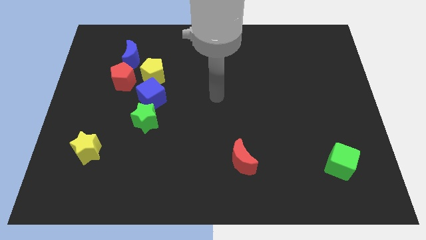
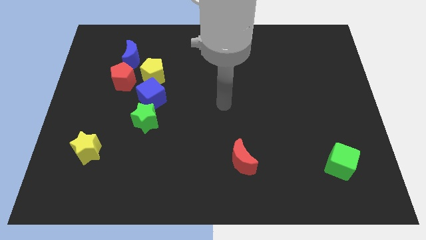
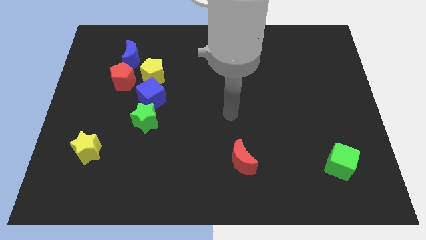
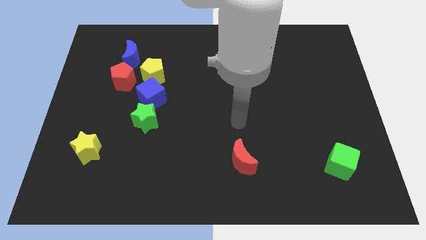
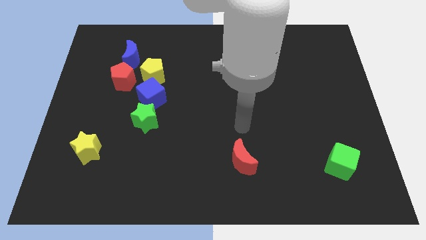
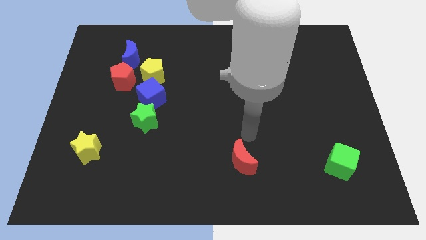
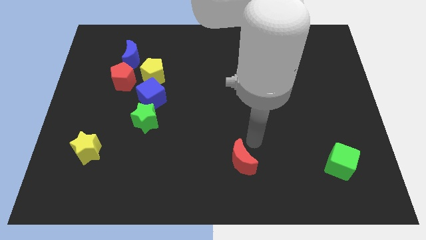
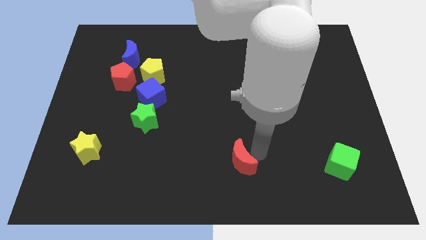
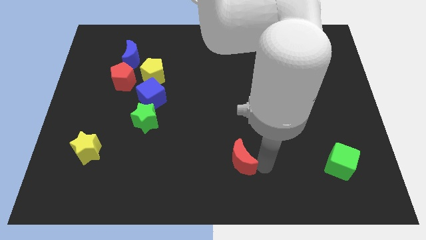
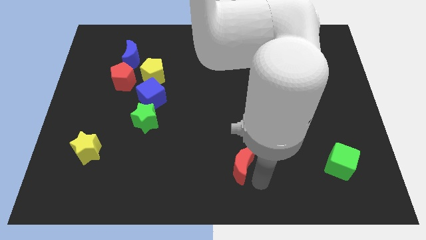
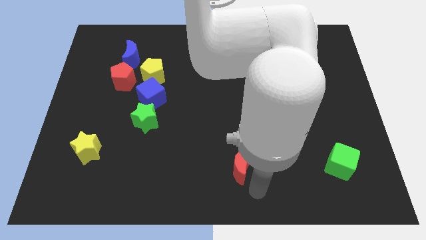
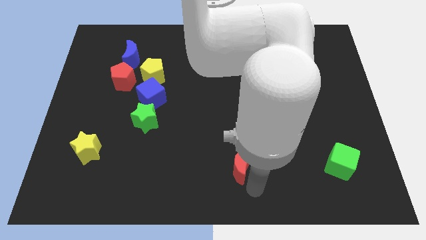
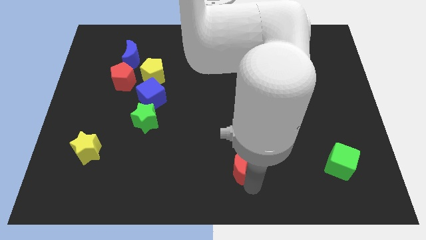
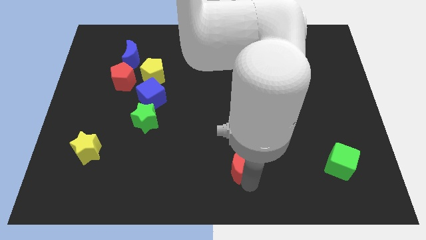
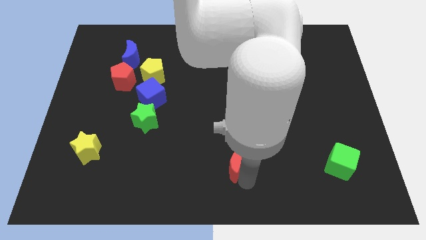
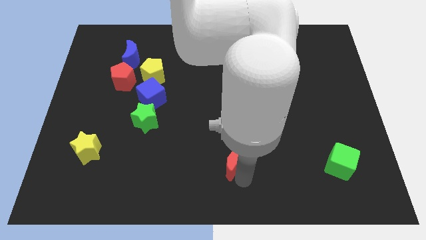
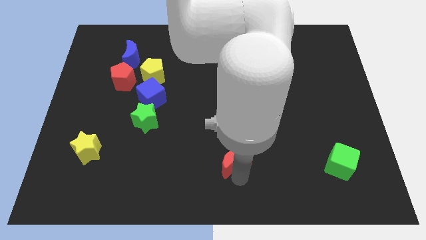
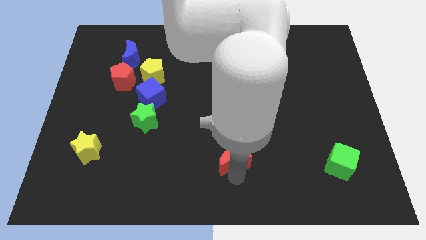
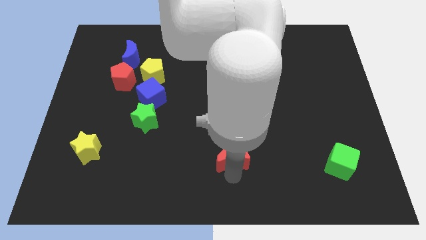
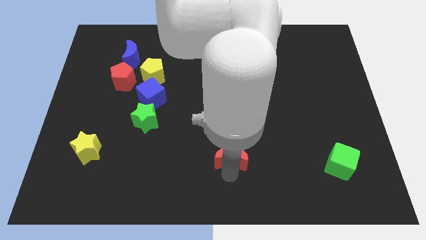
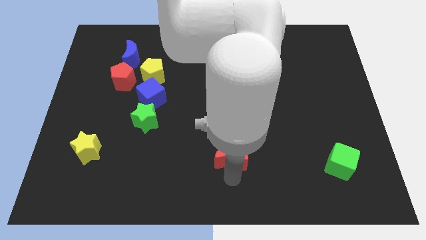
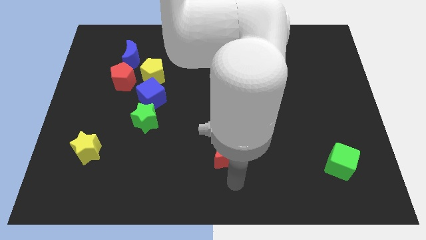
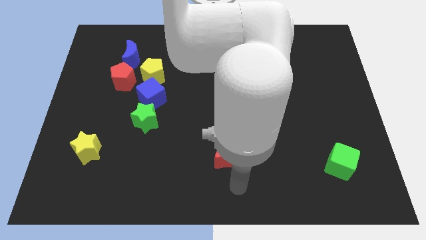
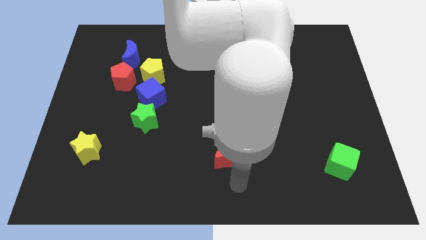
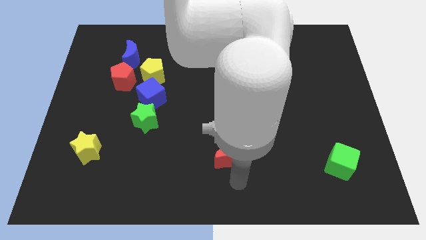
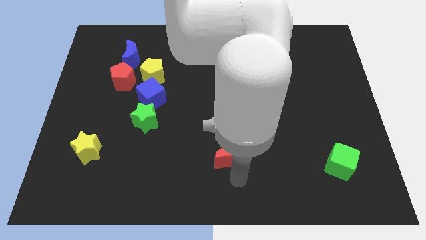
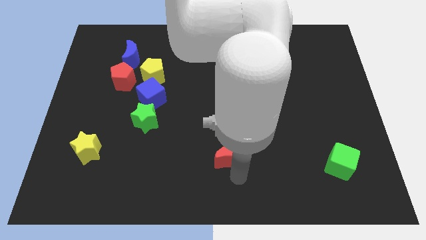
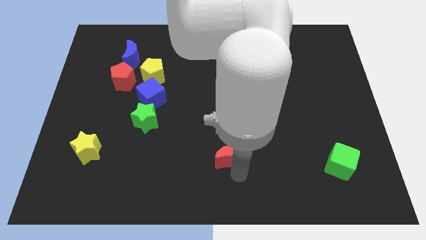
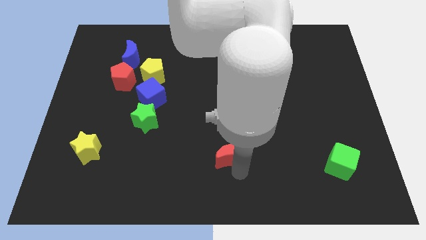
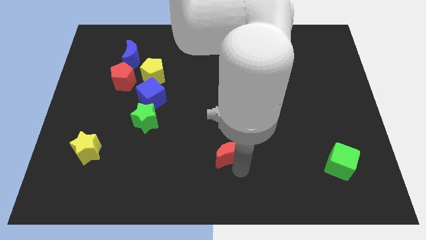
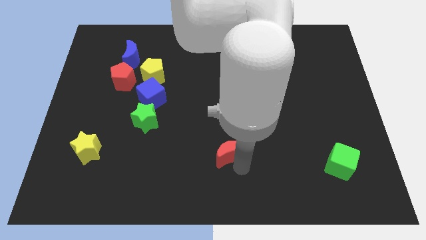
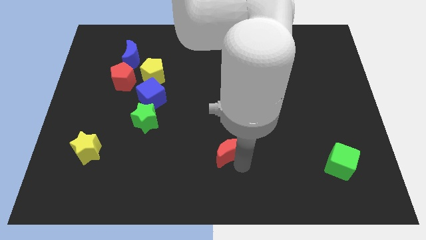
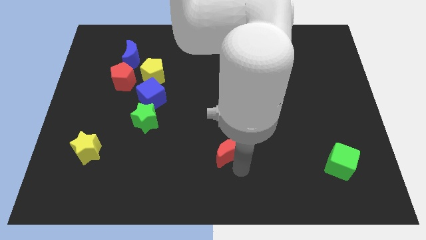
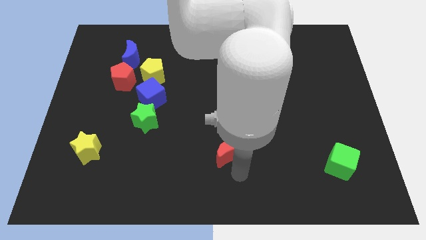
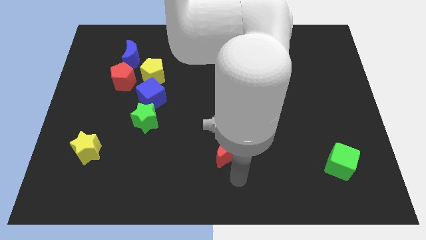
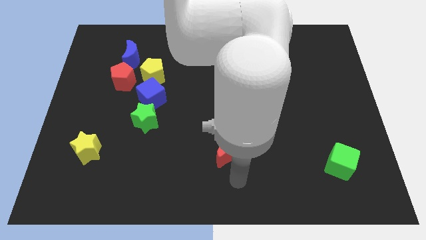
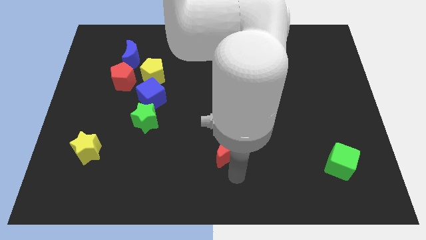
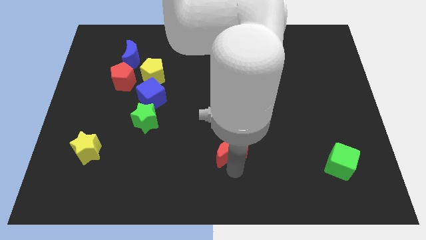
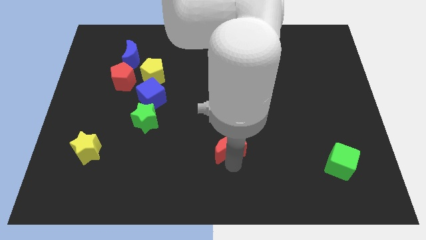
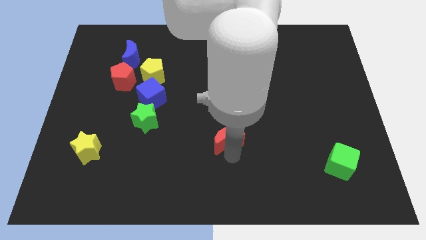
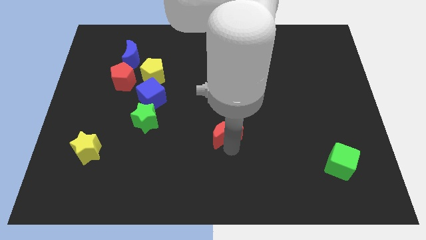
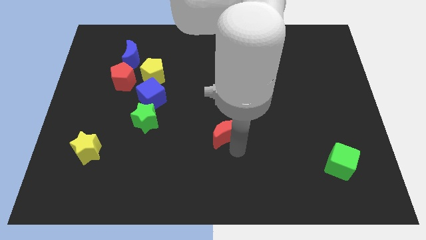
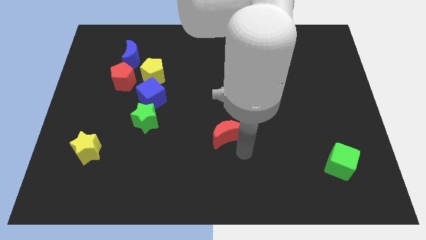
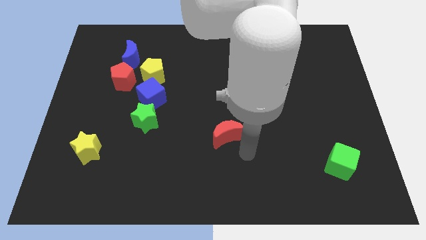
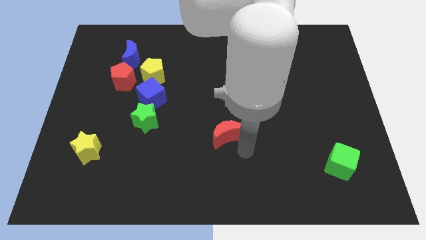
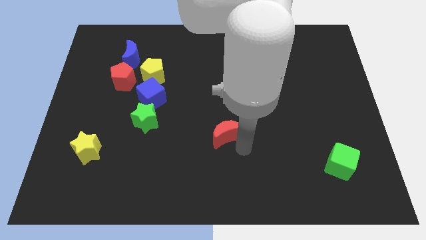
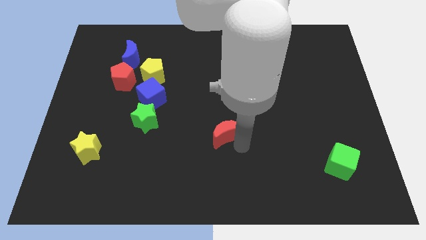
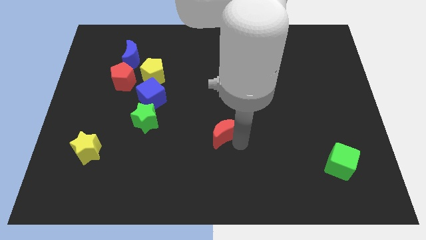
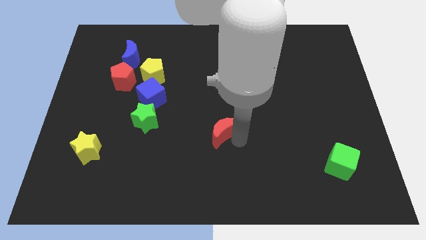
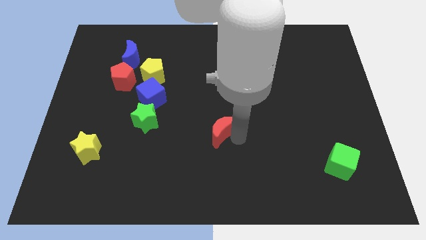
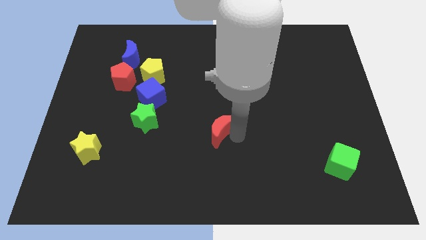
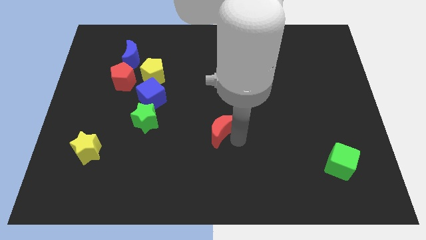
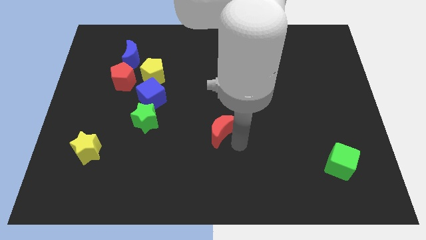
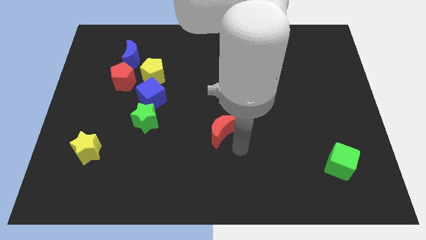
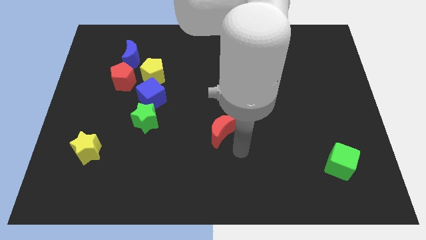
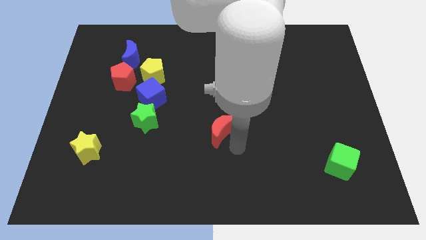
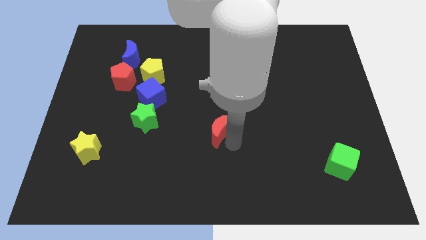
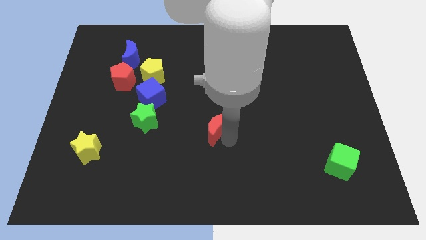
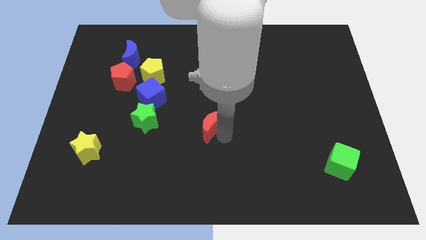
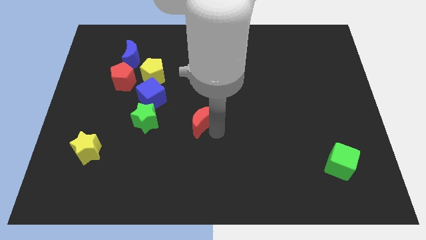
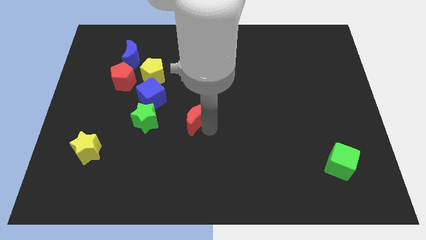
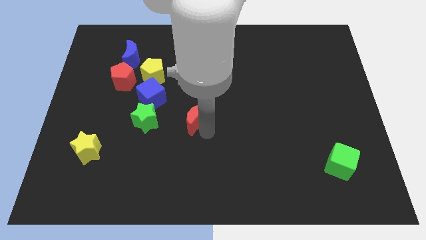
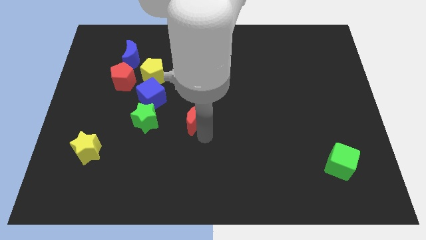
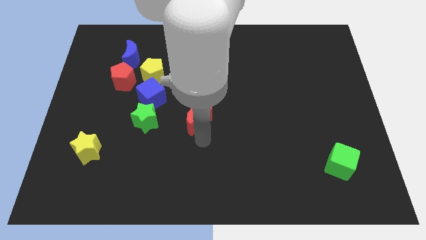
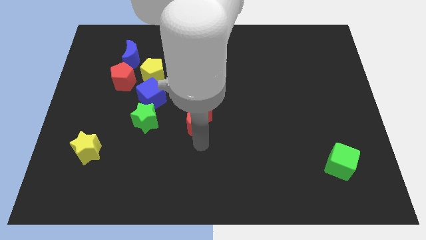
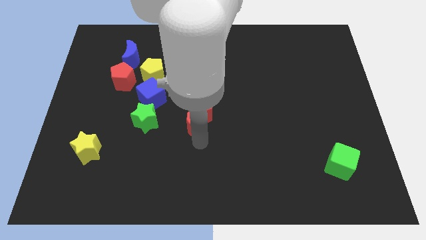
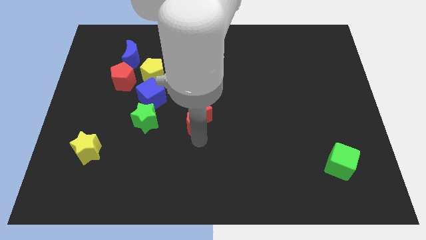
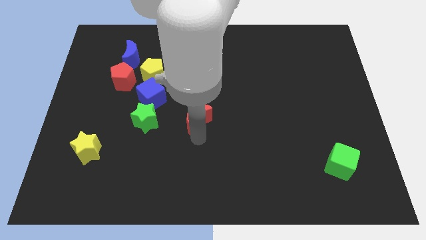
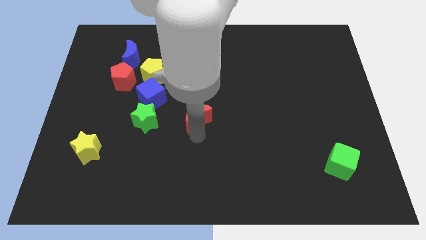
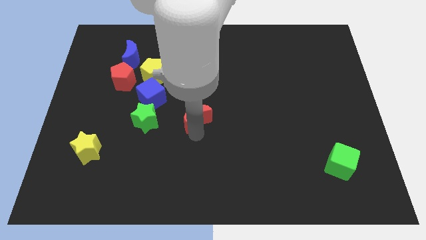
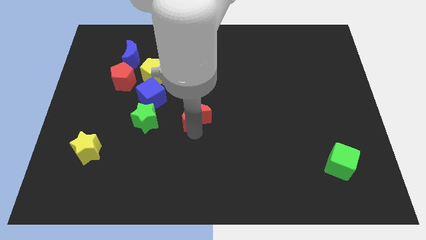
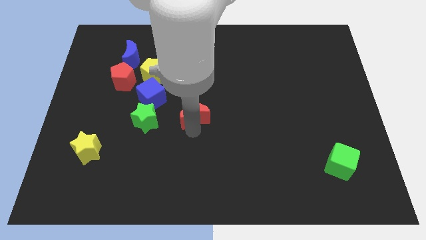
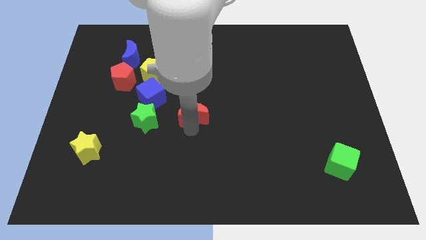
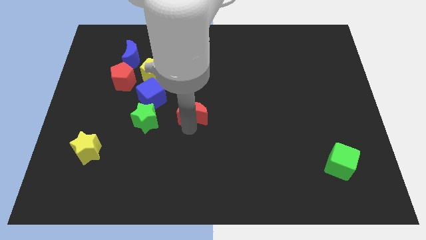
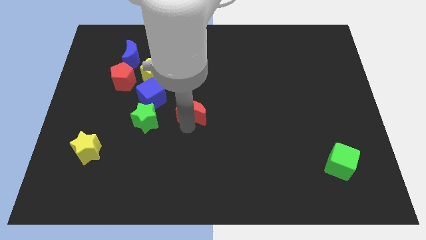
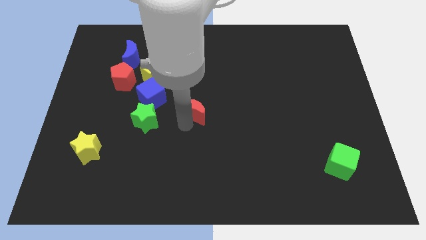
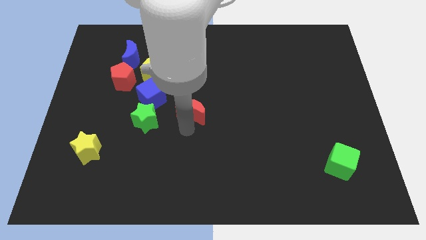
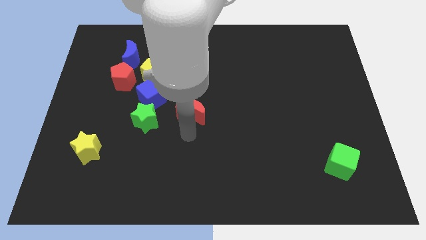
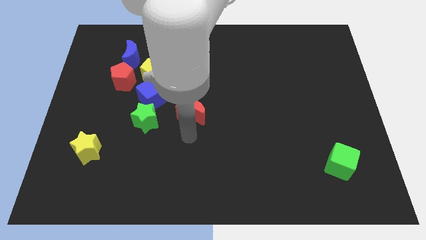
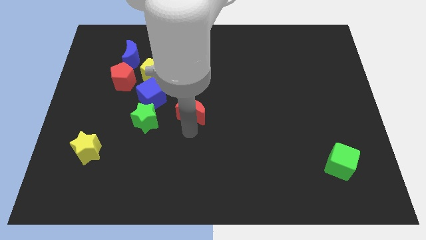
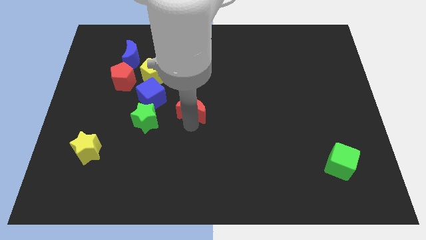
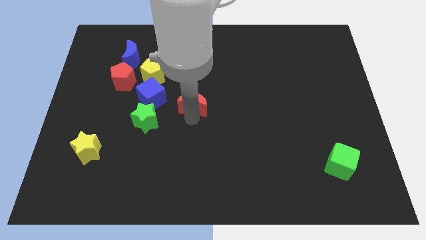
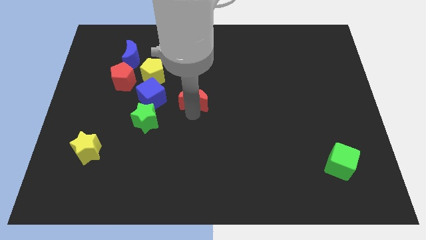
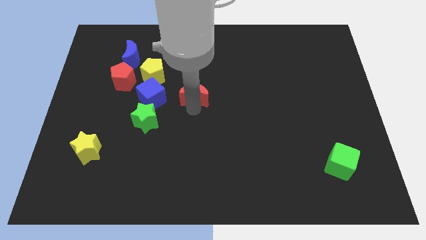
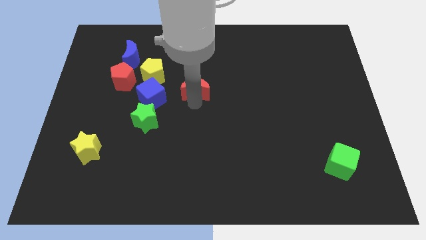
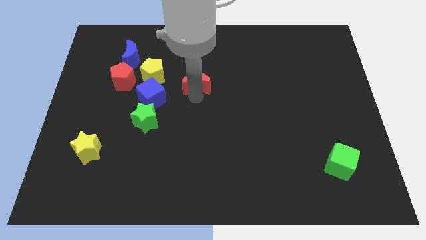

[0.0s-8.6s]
slide the red moon right of the yellow pentagon
